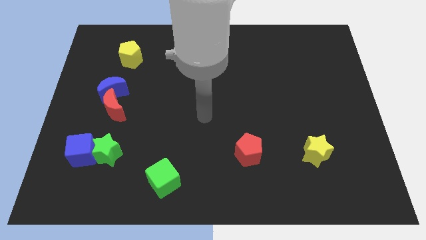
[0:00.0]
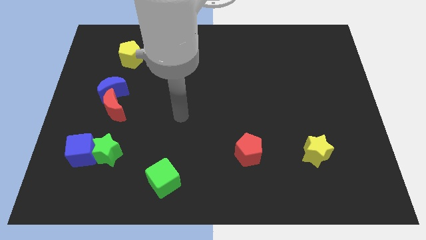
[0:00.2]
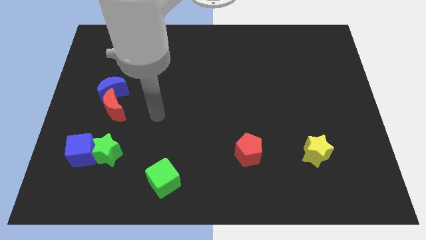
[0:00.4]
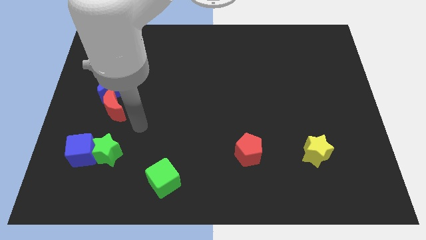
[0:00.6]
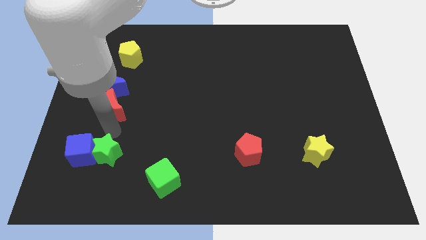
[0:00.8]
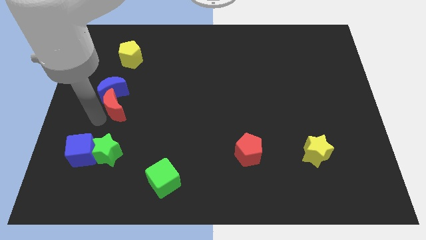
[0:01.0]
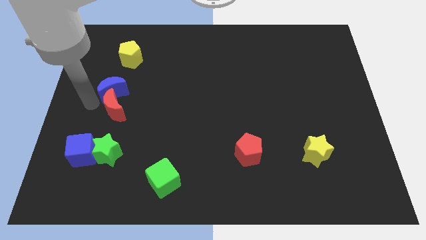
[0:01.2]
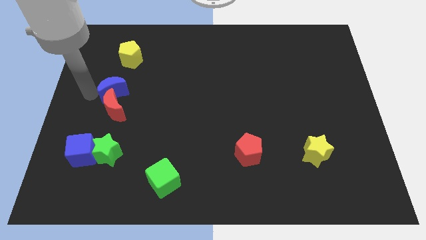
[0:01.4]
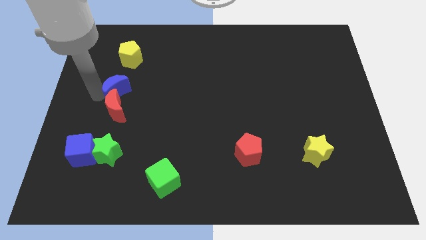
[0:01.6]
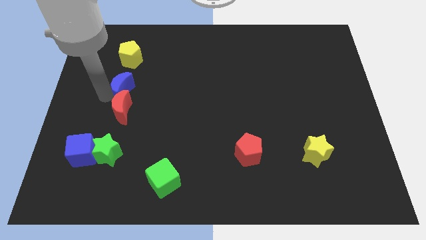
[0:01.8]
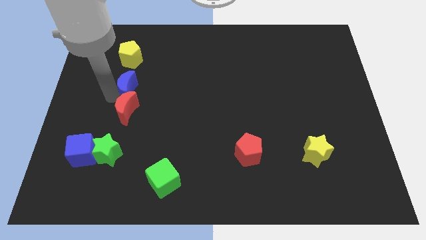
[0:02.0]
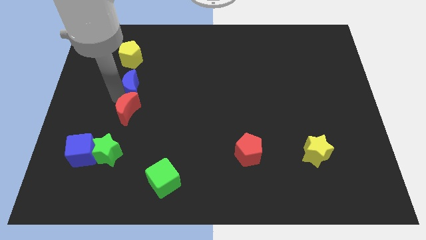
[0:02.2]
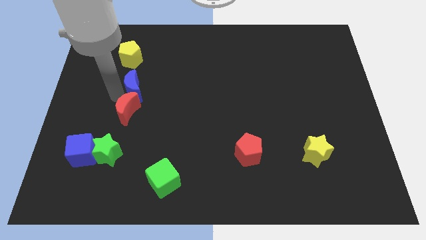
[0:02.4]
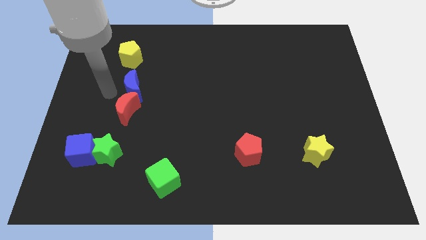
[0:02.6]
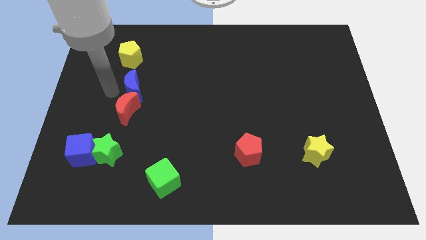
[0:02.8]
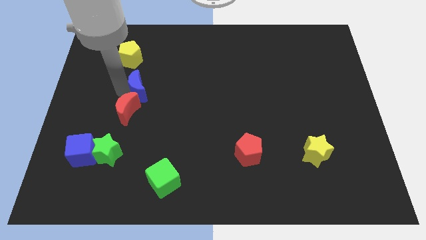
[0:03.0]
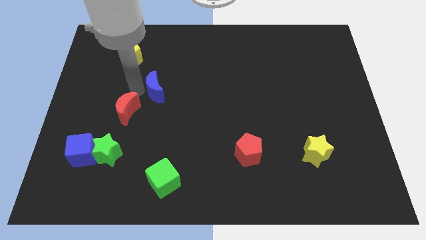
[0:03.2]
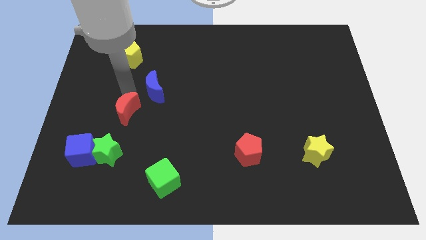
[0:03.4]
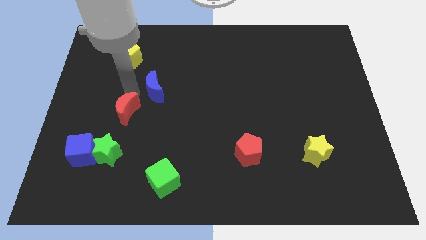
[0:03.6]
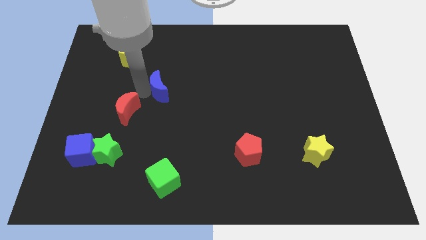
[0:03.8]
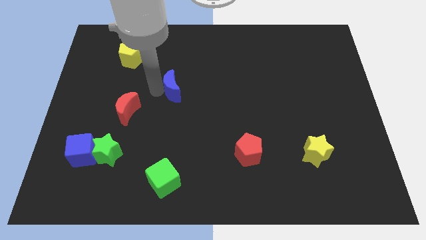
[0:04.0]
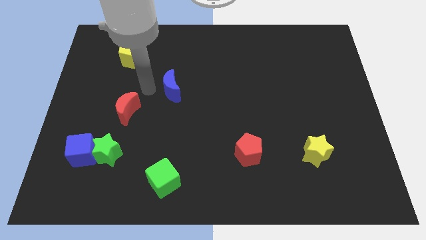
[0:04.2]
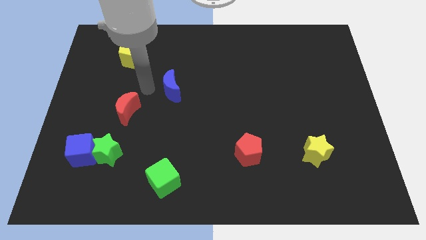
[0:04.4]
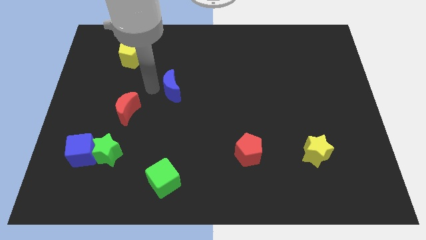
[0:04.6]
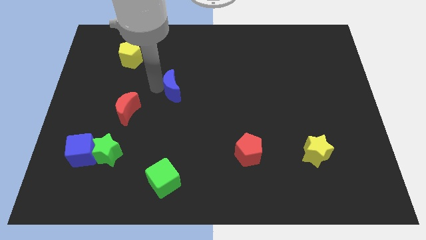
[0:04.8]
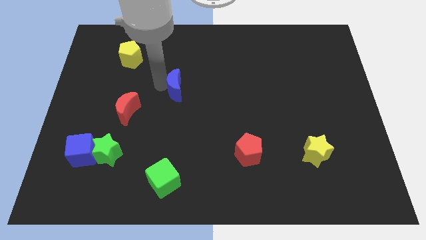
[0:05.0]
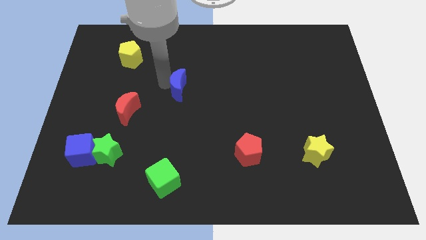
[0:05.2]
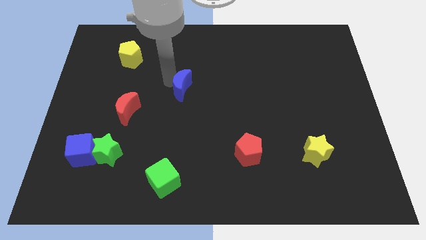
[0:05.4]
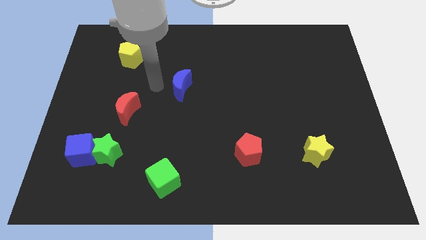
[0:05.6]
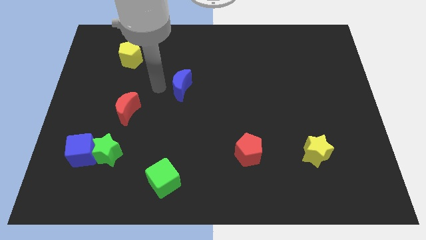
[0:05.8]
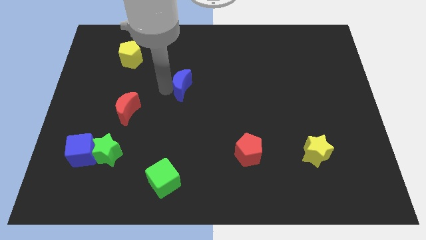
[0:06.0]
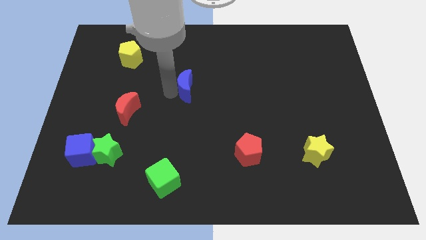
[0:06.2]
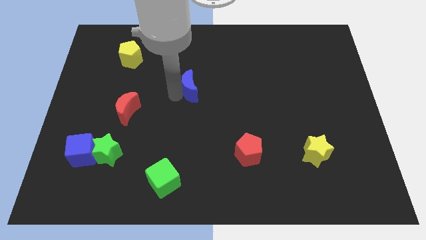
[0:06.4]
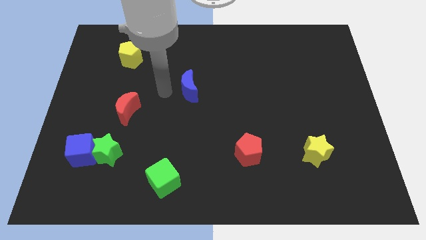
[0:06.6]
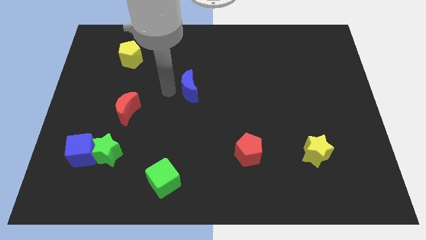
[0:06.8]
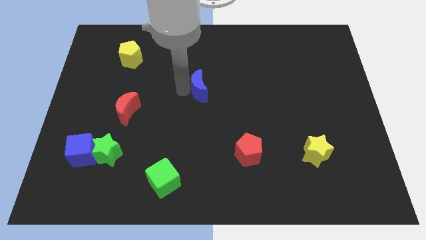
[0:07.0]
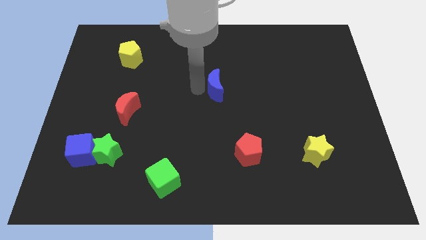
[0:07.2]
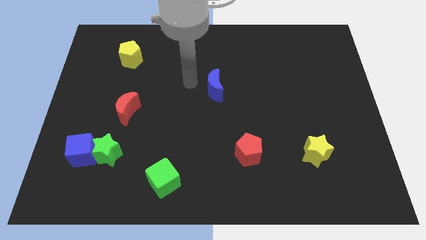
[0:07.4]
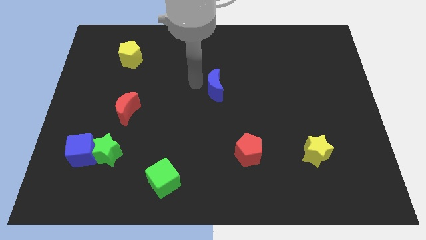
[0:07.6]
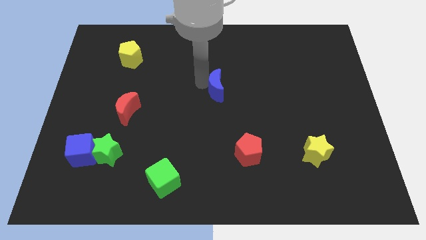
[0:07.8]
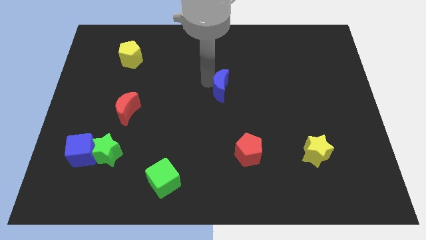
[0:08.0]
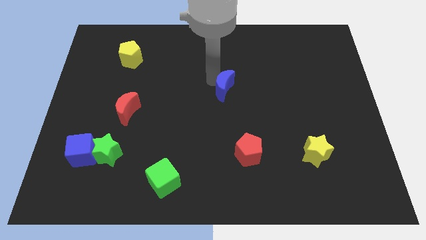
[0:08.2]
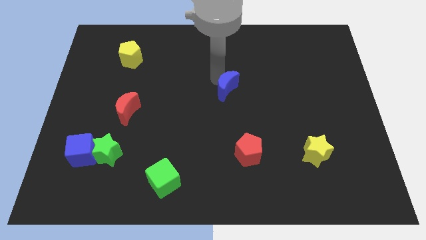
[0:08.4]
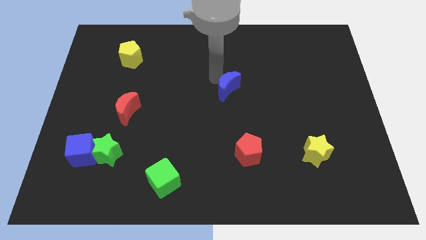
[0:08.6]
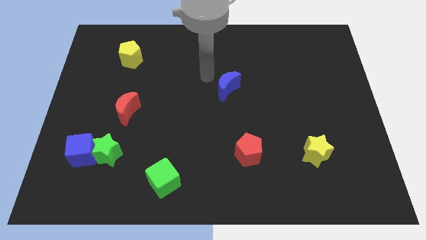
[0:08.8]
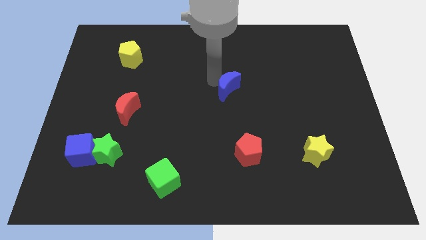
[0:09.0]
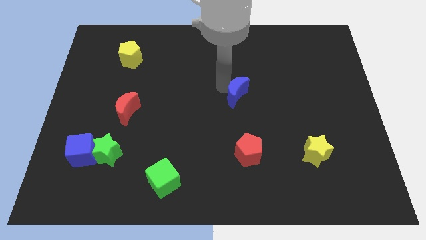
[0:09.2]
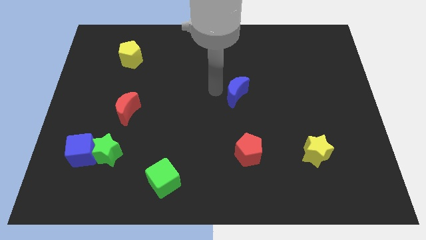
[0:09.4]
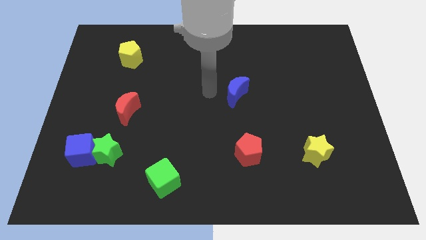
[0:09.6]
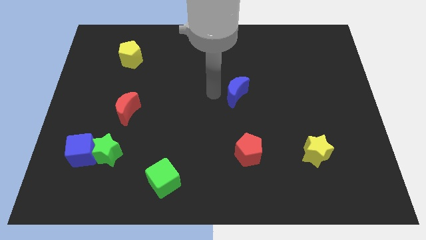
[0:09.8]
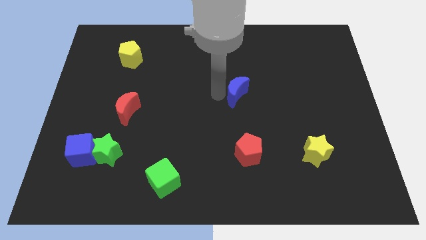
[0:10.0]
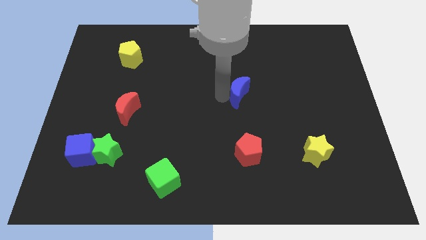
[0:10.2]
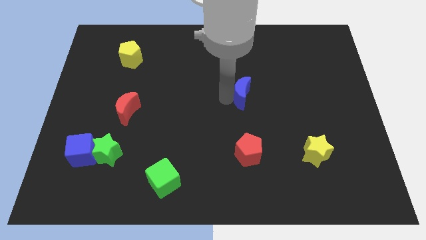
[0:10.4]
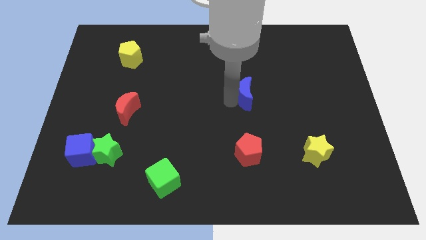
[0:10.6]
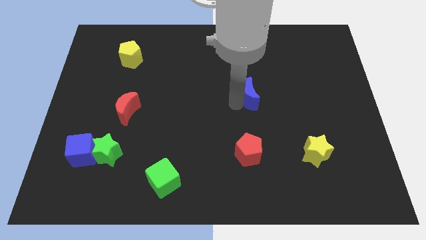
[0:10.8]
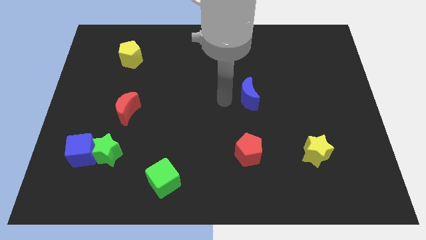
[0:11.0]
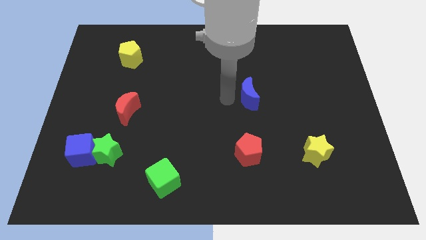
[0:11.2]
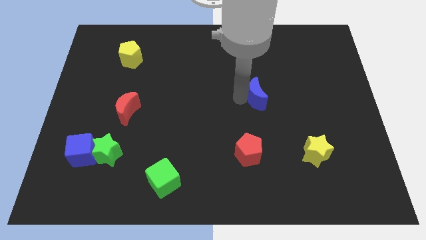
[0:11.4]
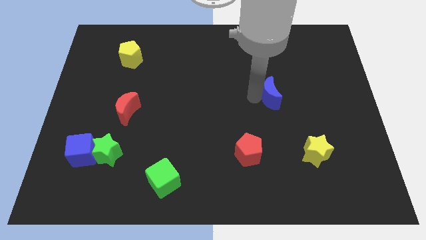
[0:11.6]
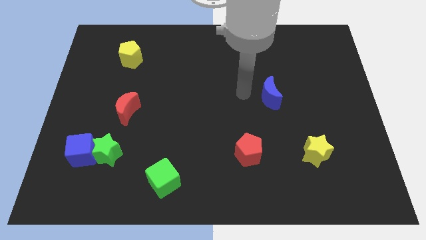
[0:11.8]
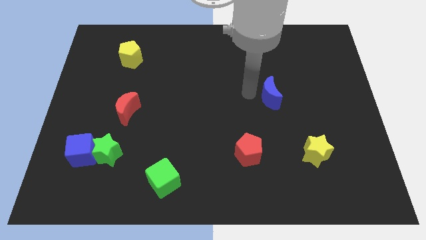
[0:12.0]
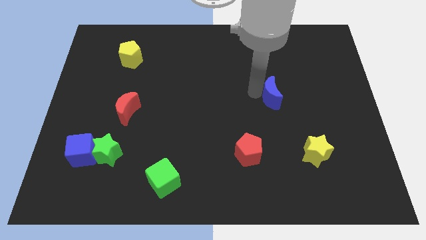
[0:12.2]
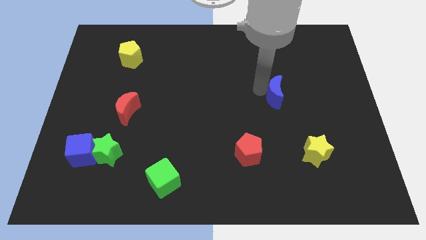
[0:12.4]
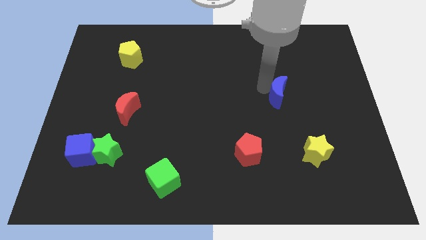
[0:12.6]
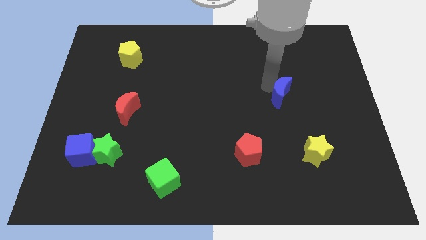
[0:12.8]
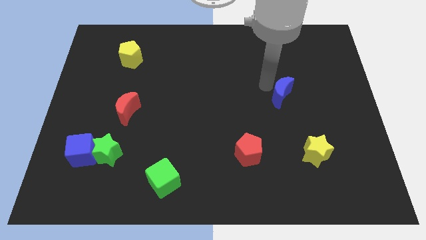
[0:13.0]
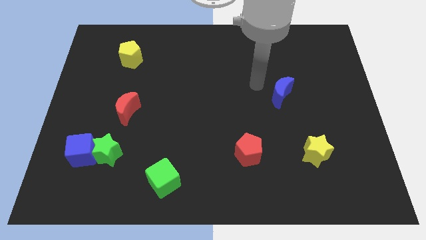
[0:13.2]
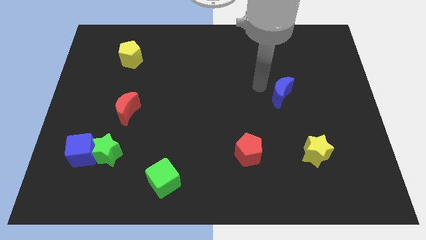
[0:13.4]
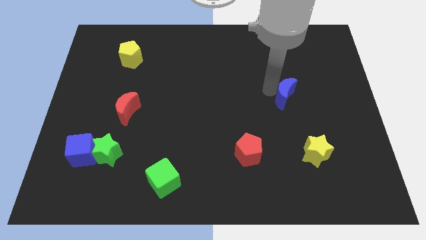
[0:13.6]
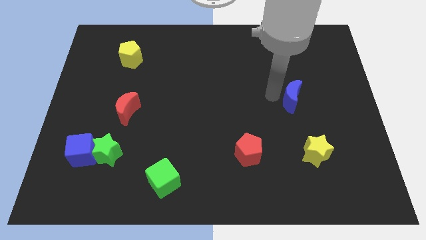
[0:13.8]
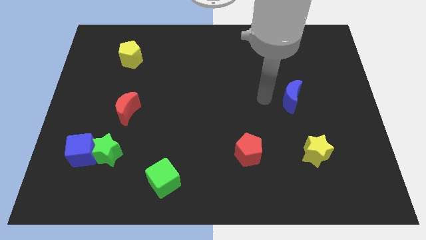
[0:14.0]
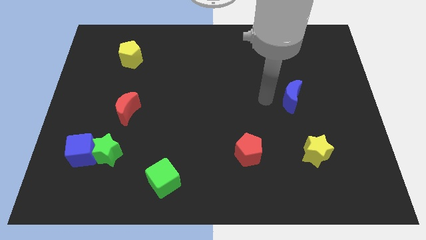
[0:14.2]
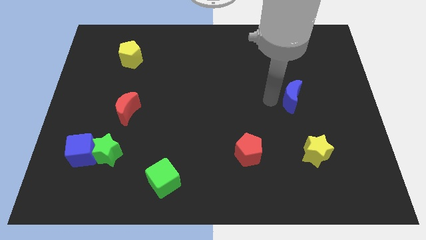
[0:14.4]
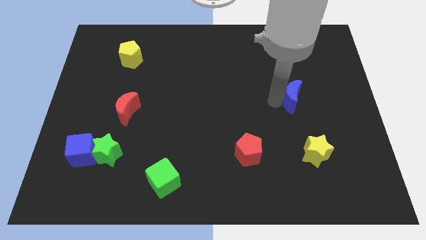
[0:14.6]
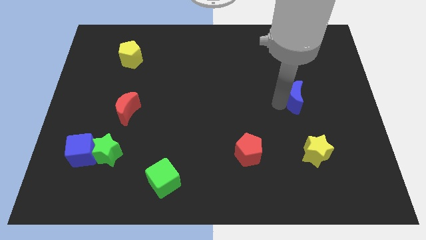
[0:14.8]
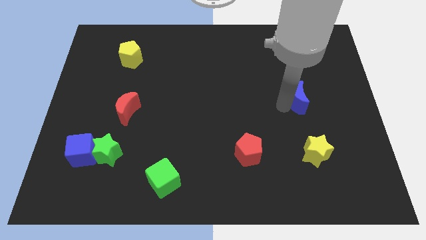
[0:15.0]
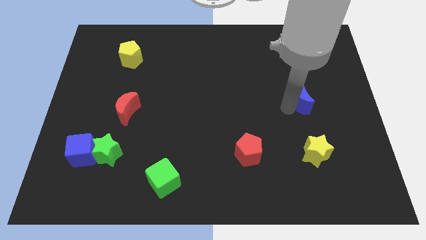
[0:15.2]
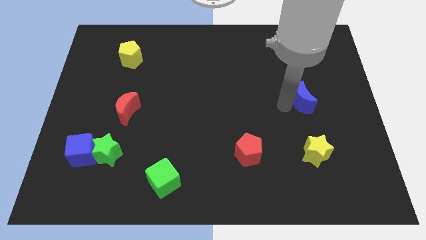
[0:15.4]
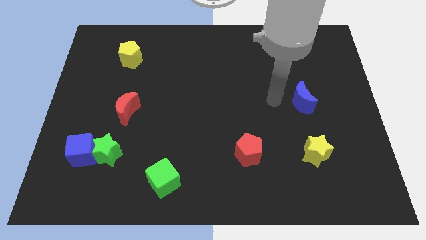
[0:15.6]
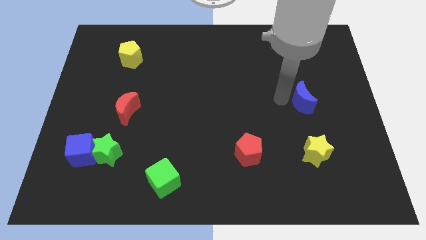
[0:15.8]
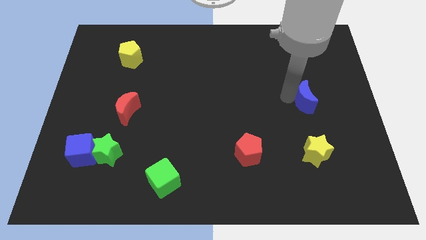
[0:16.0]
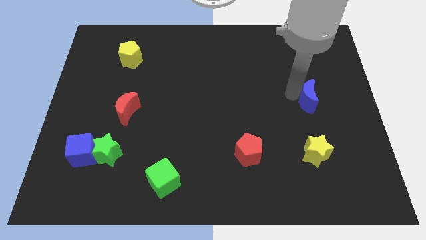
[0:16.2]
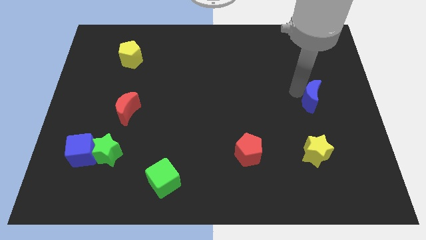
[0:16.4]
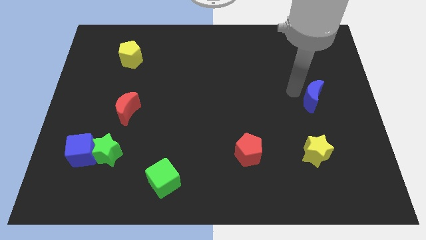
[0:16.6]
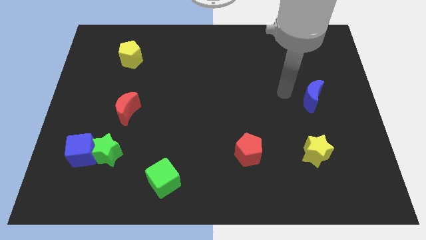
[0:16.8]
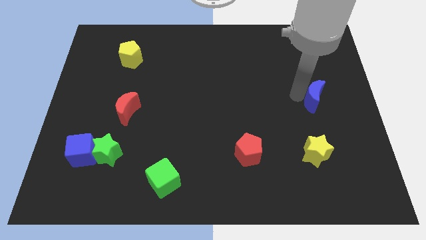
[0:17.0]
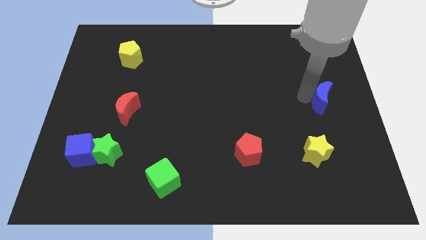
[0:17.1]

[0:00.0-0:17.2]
push the blue moon to the center right
